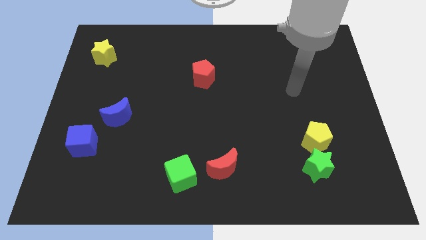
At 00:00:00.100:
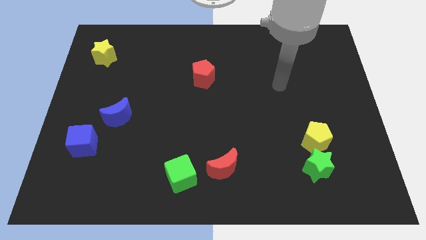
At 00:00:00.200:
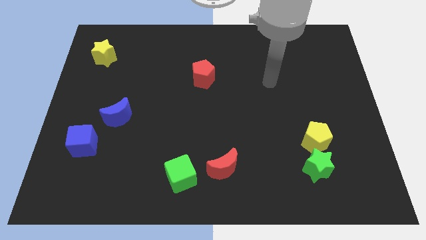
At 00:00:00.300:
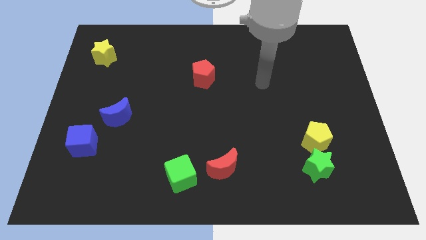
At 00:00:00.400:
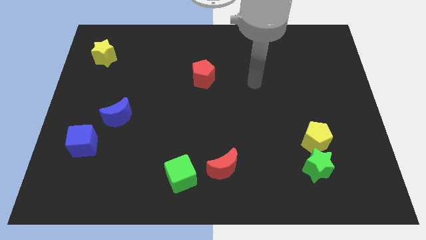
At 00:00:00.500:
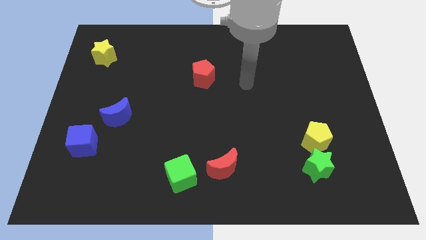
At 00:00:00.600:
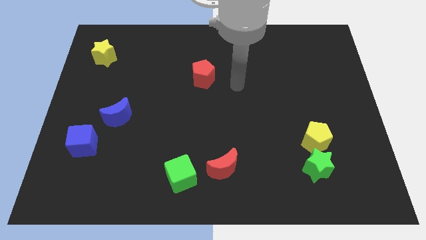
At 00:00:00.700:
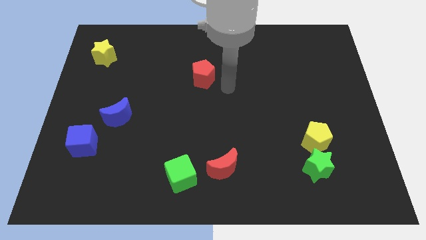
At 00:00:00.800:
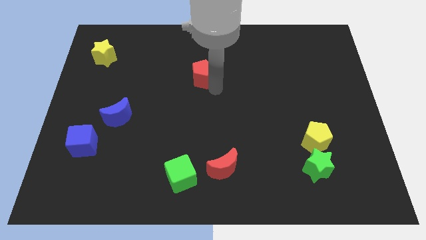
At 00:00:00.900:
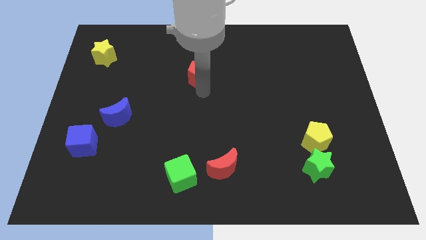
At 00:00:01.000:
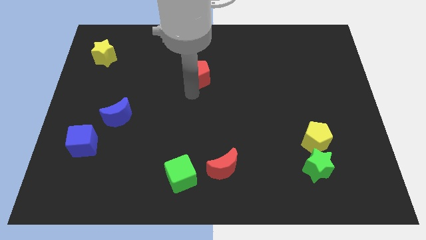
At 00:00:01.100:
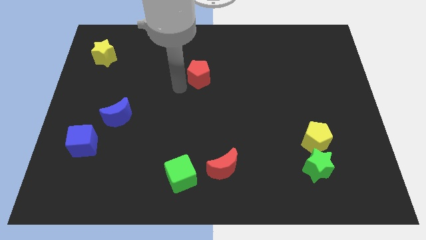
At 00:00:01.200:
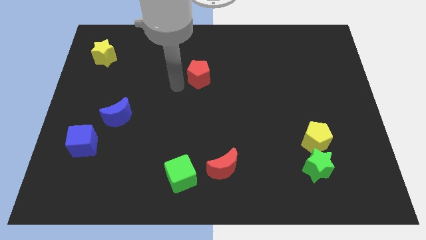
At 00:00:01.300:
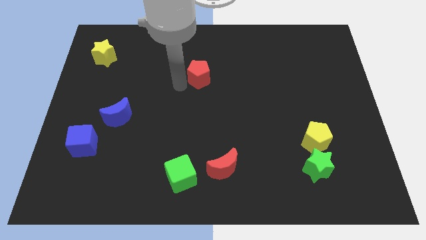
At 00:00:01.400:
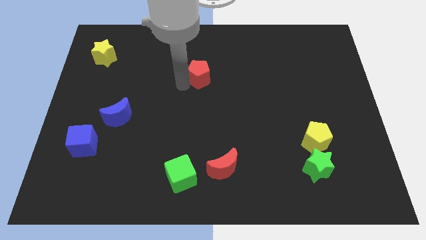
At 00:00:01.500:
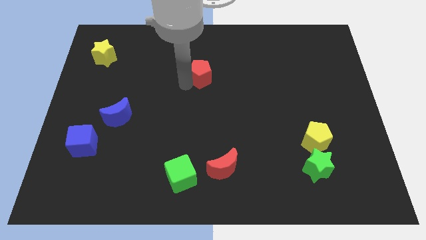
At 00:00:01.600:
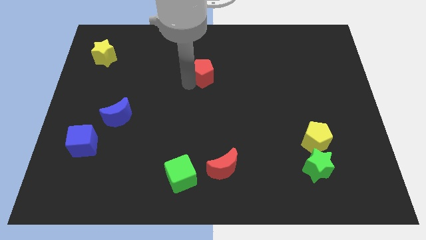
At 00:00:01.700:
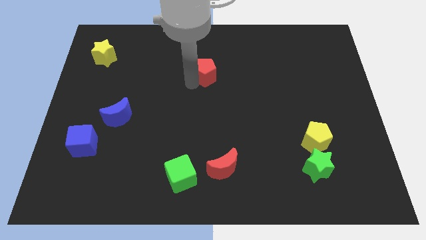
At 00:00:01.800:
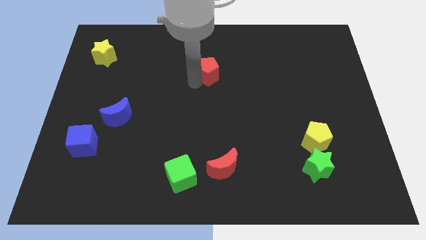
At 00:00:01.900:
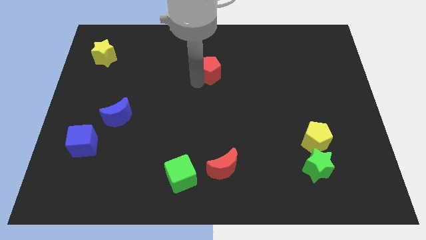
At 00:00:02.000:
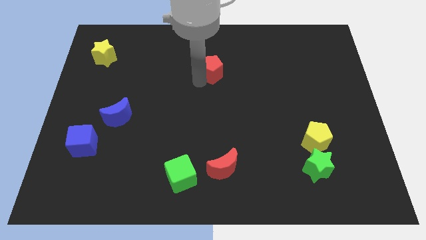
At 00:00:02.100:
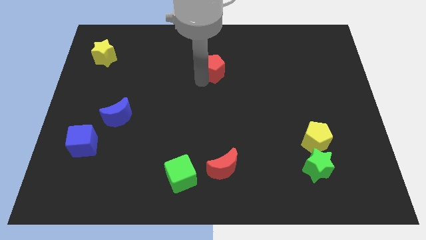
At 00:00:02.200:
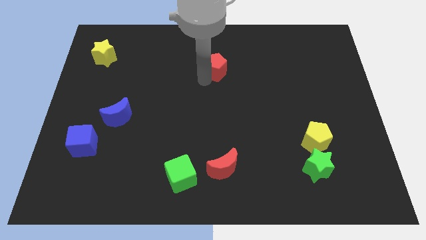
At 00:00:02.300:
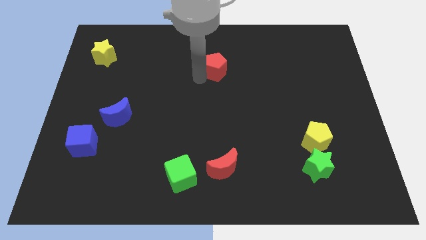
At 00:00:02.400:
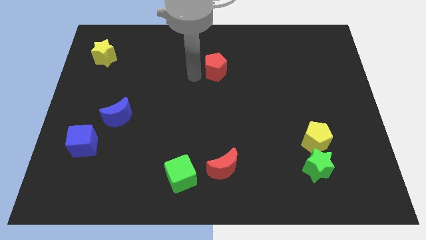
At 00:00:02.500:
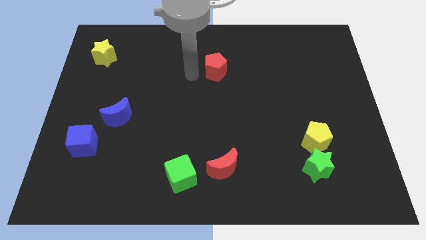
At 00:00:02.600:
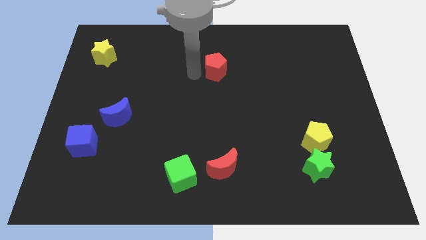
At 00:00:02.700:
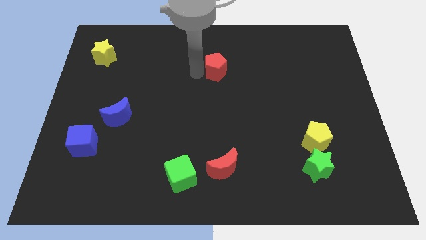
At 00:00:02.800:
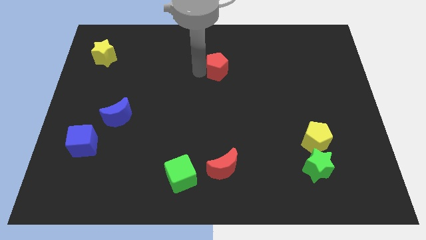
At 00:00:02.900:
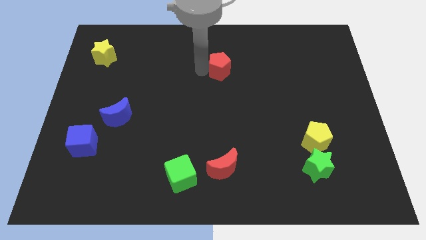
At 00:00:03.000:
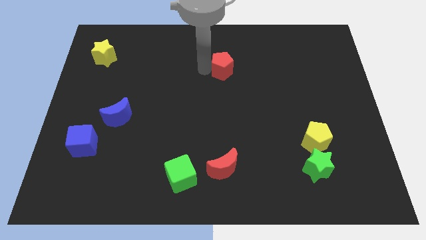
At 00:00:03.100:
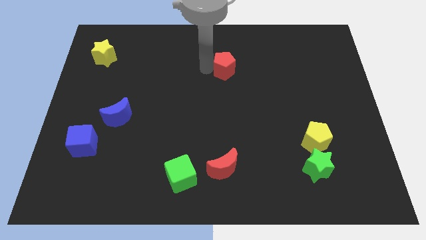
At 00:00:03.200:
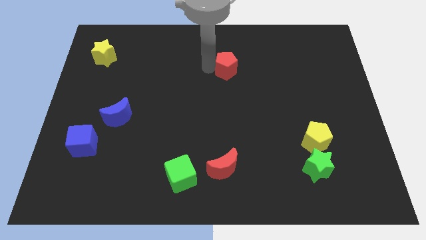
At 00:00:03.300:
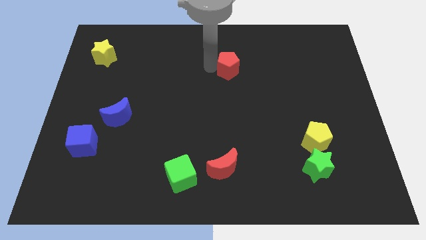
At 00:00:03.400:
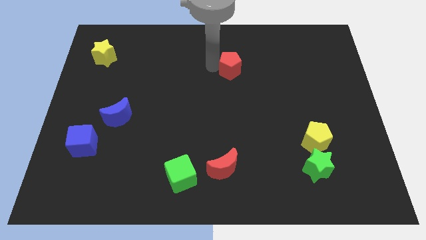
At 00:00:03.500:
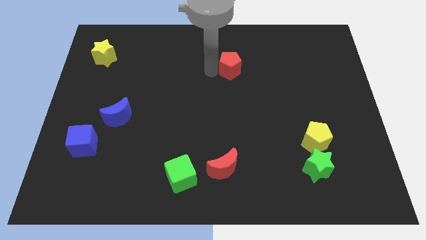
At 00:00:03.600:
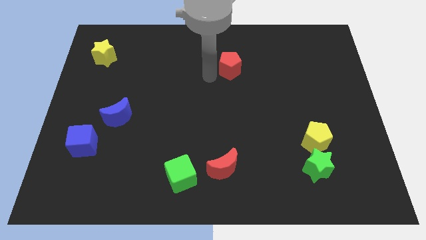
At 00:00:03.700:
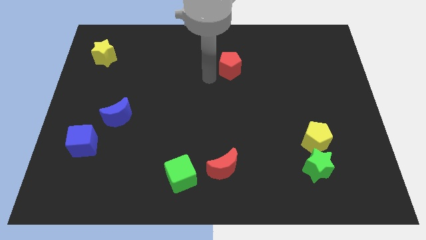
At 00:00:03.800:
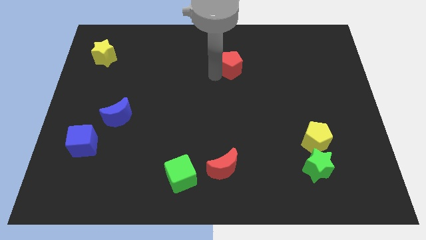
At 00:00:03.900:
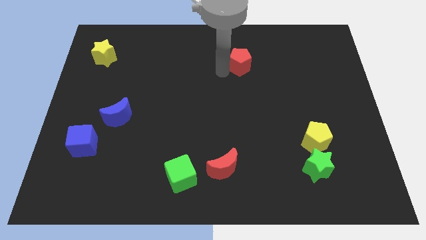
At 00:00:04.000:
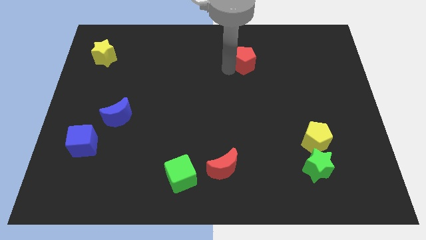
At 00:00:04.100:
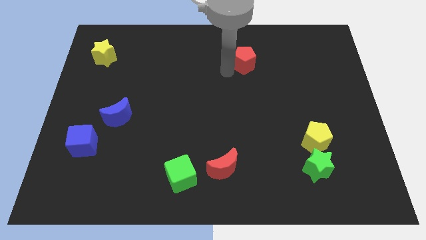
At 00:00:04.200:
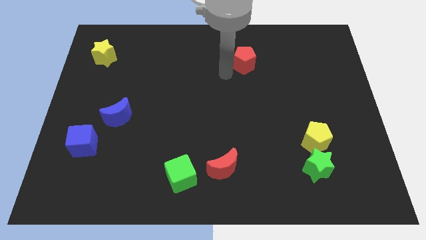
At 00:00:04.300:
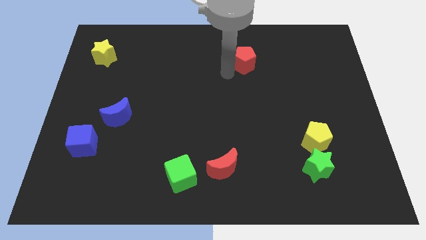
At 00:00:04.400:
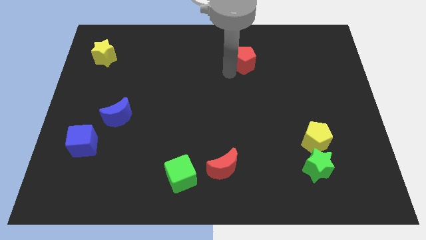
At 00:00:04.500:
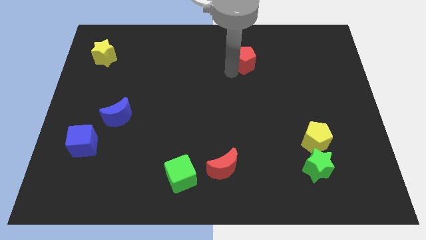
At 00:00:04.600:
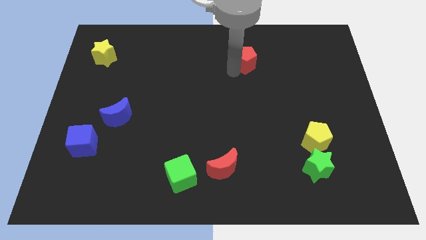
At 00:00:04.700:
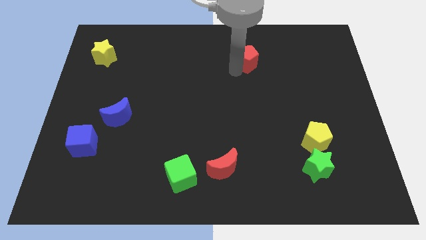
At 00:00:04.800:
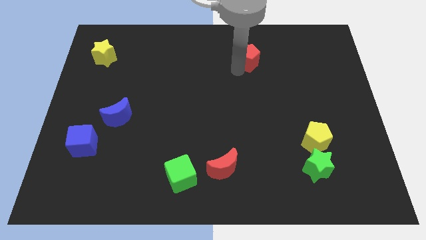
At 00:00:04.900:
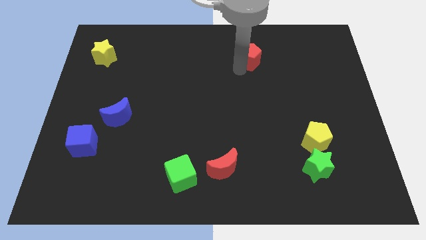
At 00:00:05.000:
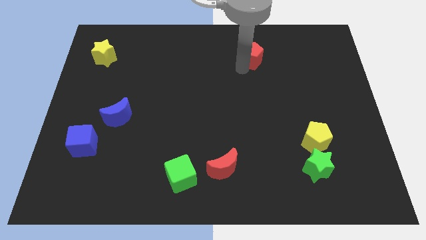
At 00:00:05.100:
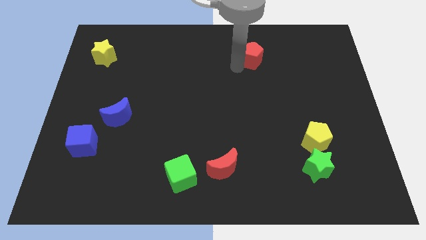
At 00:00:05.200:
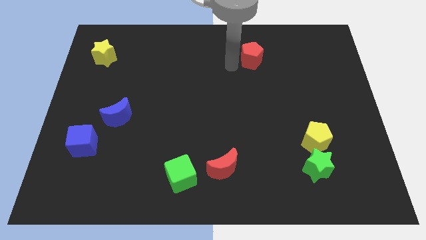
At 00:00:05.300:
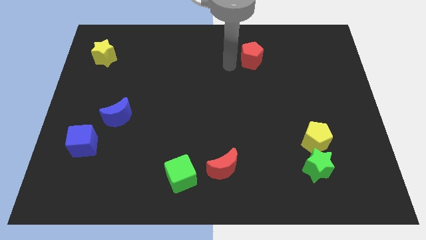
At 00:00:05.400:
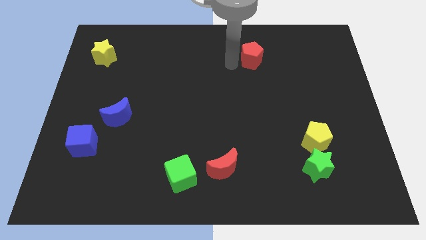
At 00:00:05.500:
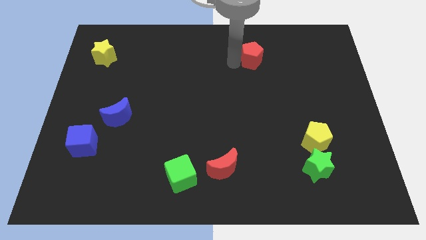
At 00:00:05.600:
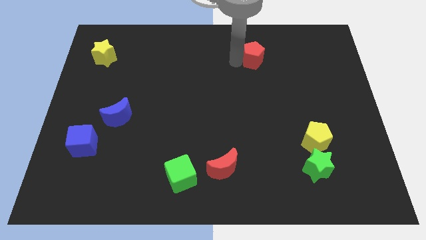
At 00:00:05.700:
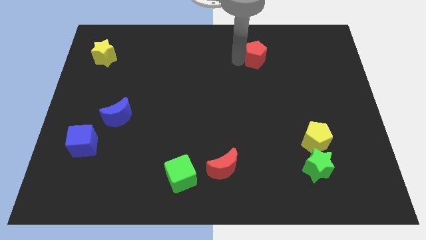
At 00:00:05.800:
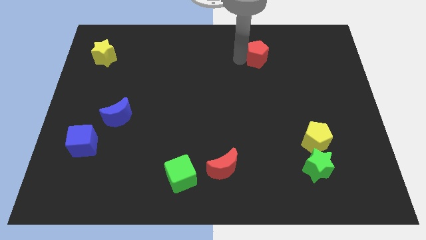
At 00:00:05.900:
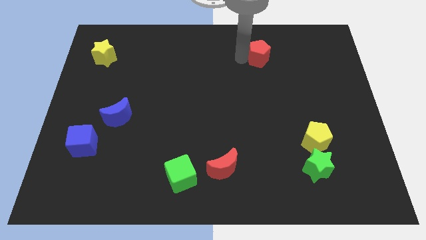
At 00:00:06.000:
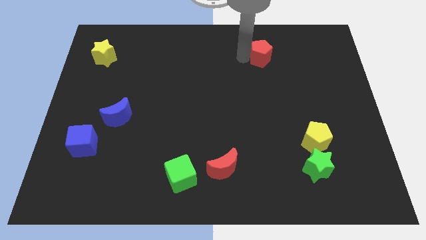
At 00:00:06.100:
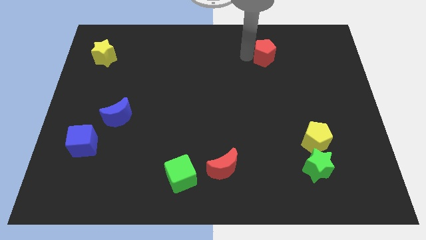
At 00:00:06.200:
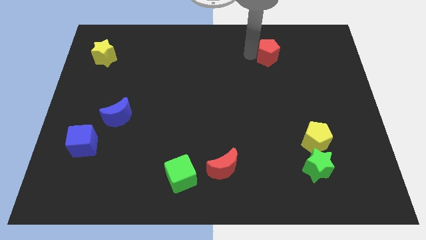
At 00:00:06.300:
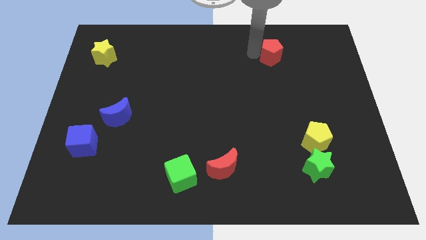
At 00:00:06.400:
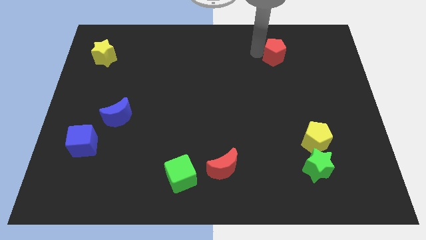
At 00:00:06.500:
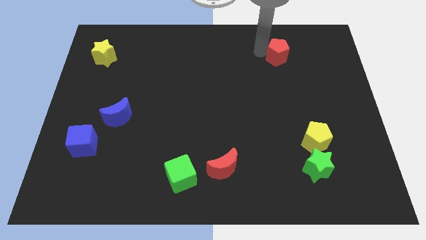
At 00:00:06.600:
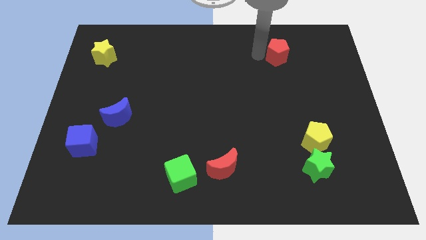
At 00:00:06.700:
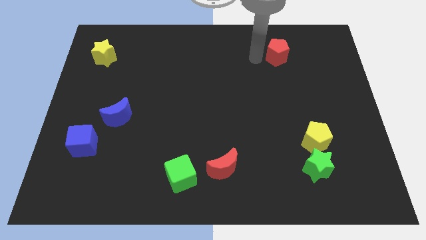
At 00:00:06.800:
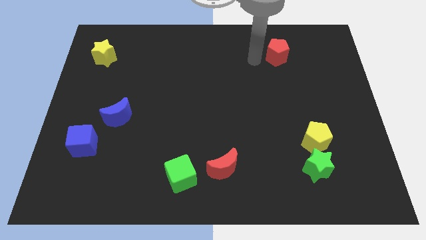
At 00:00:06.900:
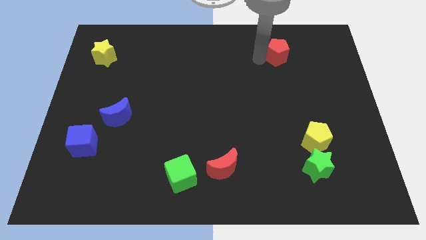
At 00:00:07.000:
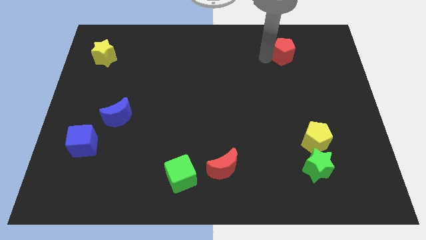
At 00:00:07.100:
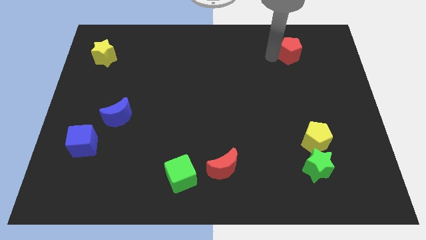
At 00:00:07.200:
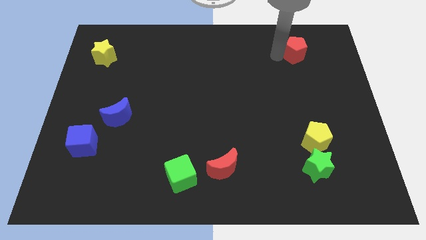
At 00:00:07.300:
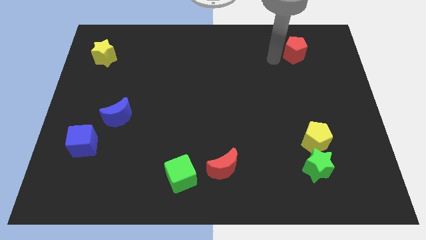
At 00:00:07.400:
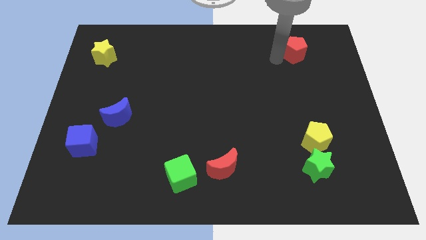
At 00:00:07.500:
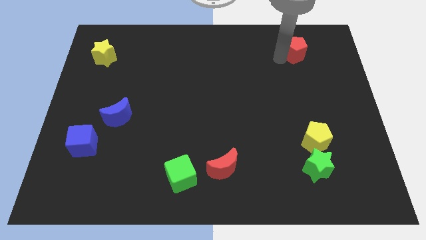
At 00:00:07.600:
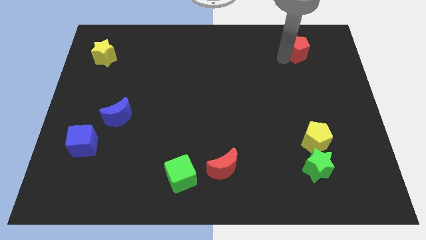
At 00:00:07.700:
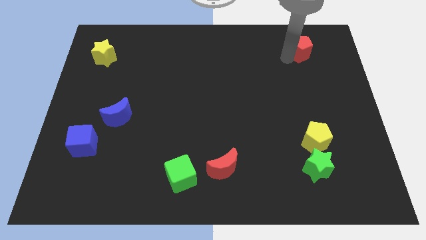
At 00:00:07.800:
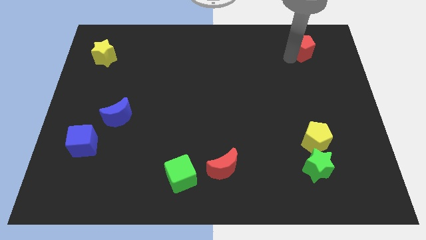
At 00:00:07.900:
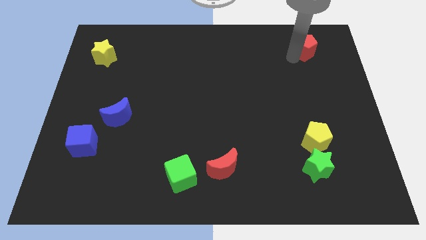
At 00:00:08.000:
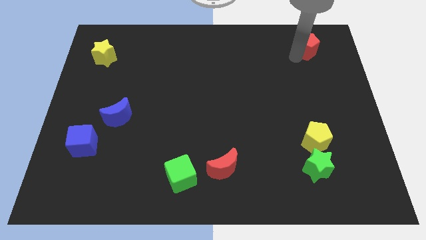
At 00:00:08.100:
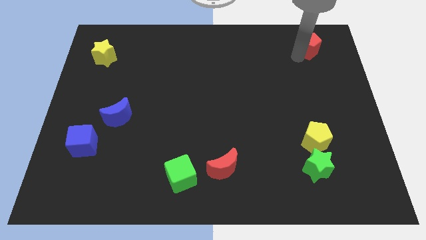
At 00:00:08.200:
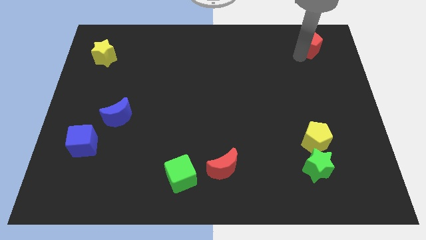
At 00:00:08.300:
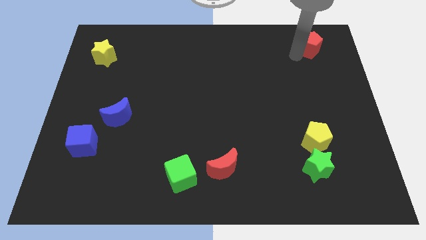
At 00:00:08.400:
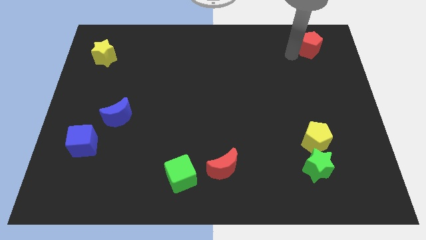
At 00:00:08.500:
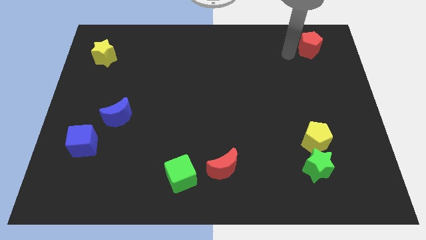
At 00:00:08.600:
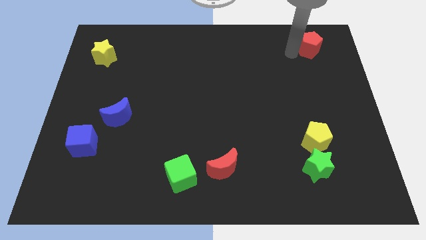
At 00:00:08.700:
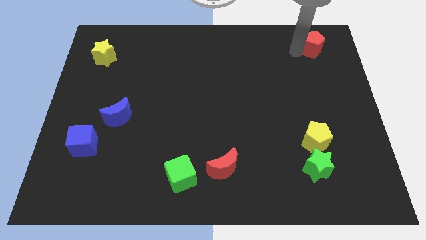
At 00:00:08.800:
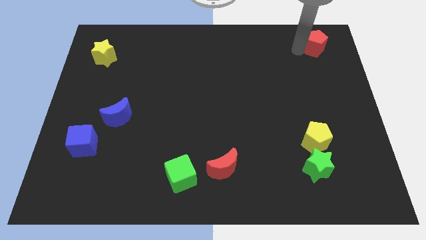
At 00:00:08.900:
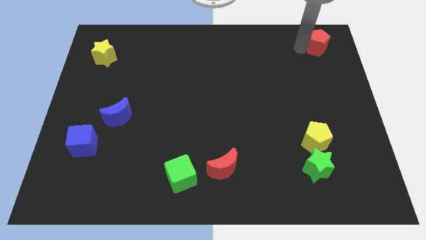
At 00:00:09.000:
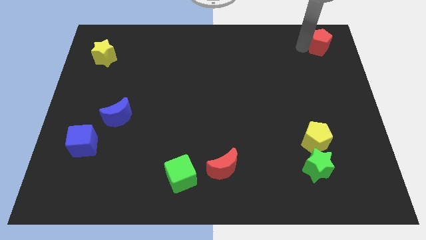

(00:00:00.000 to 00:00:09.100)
put the red pentagon to the top right corner
